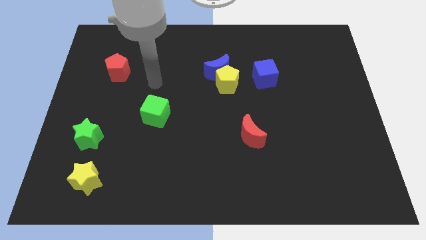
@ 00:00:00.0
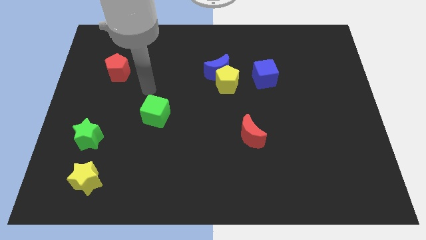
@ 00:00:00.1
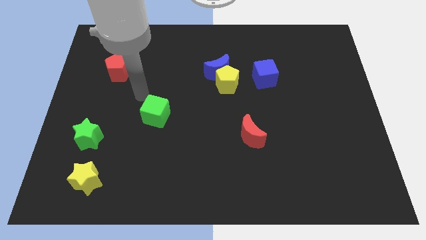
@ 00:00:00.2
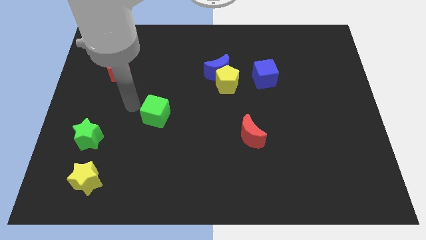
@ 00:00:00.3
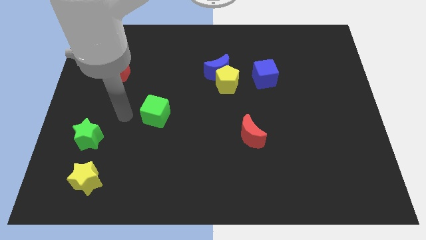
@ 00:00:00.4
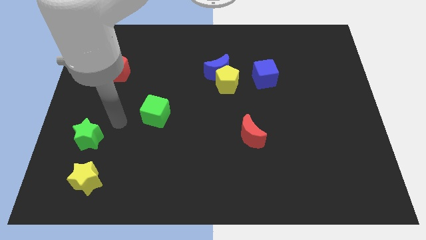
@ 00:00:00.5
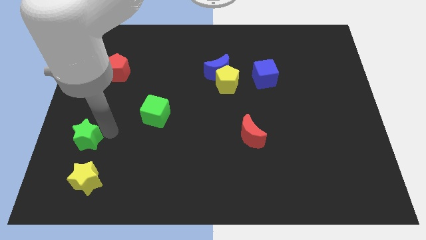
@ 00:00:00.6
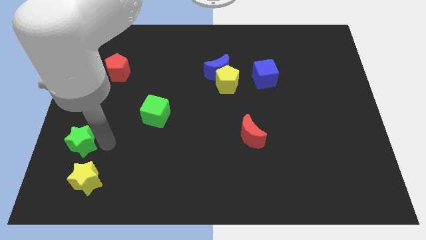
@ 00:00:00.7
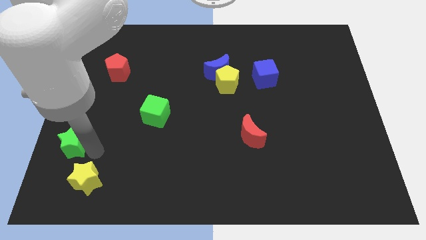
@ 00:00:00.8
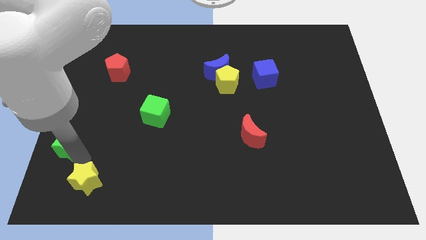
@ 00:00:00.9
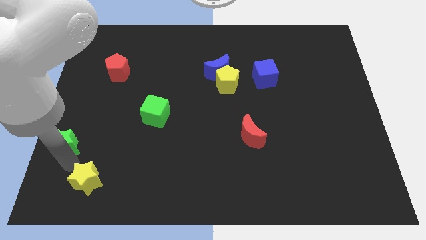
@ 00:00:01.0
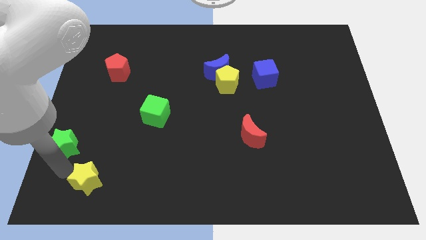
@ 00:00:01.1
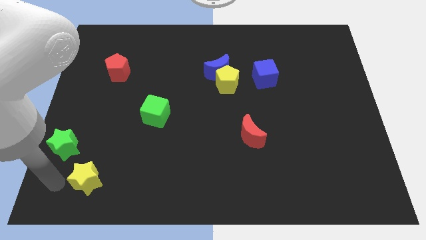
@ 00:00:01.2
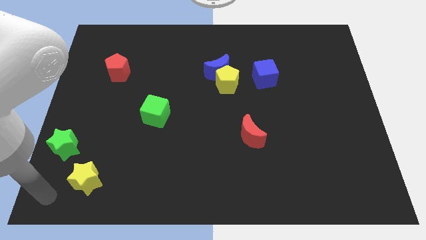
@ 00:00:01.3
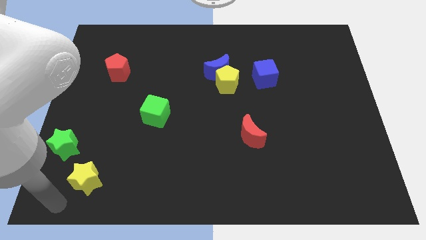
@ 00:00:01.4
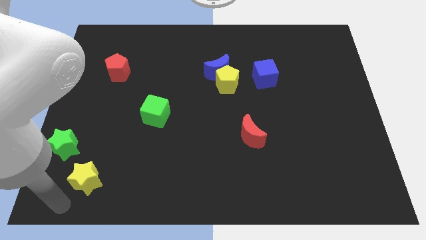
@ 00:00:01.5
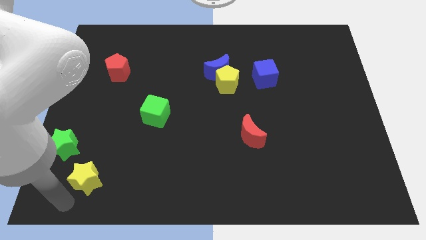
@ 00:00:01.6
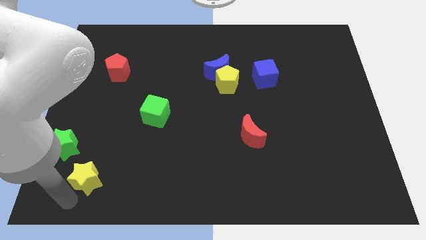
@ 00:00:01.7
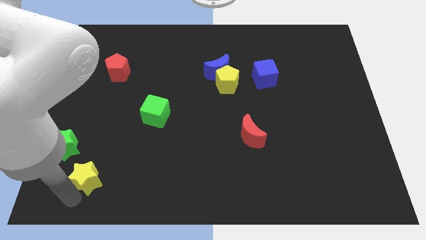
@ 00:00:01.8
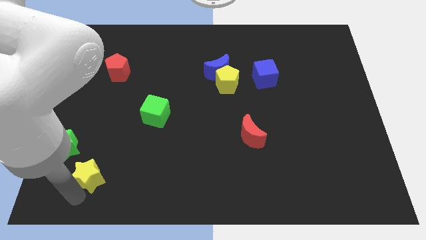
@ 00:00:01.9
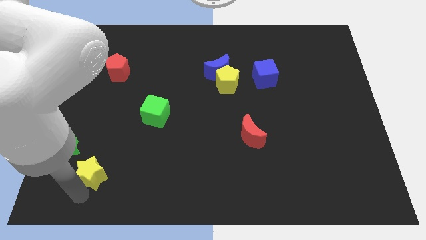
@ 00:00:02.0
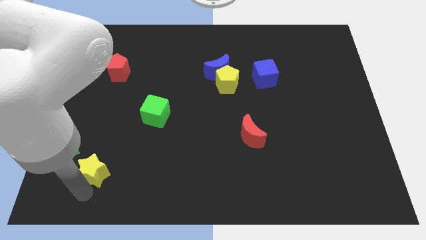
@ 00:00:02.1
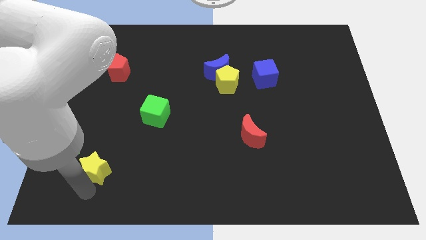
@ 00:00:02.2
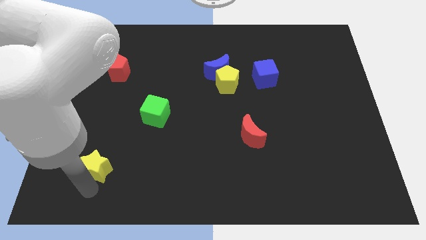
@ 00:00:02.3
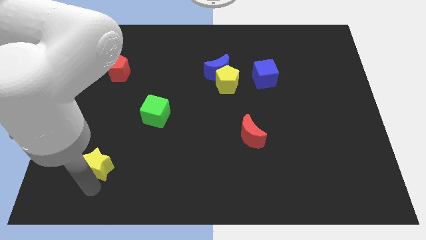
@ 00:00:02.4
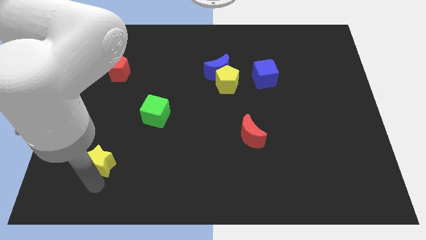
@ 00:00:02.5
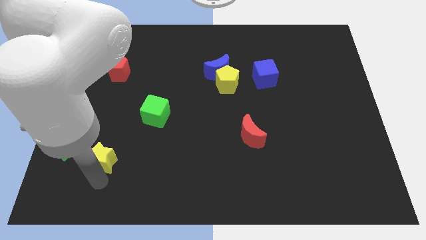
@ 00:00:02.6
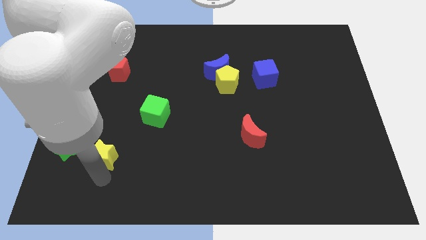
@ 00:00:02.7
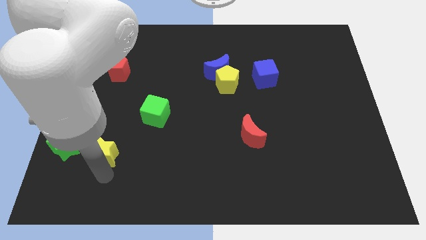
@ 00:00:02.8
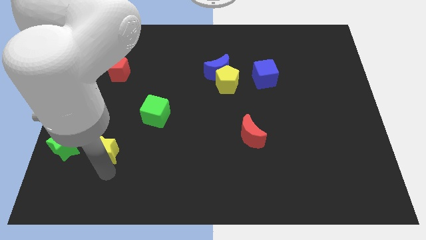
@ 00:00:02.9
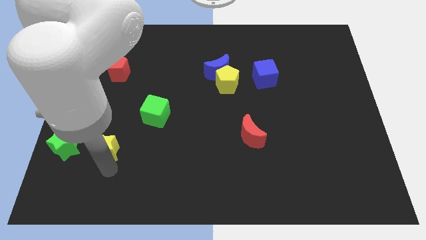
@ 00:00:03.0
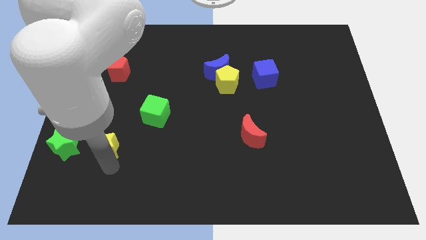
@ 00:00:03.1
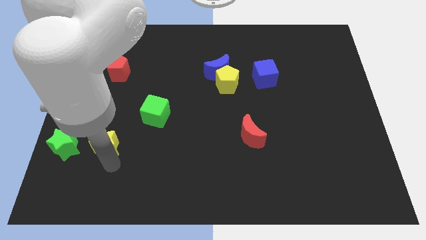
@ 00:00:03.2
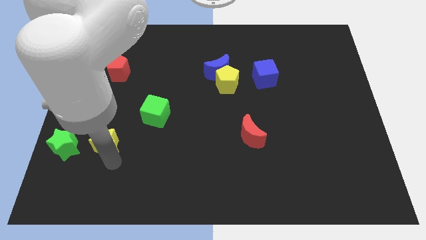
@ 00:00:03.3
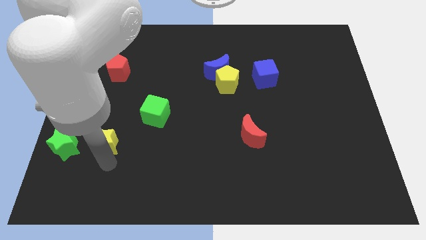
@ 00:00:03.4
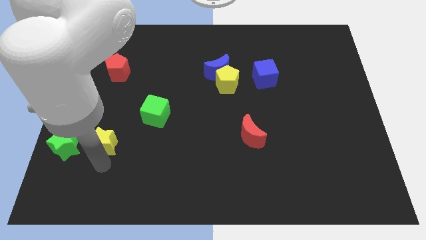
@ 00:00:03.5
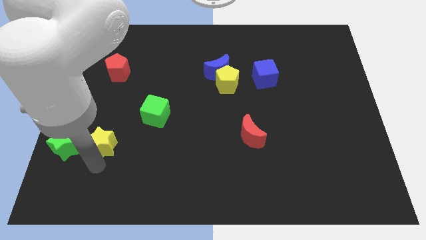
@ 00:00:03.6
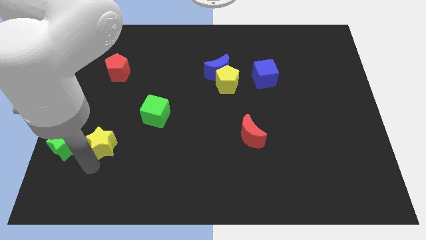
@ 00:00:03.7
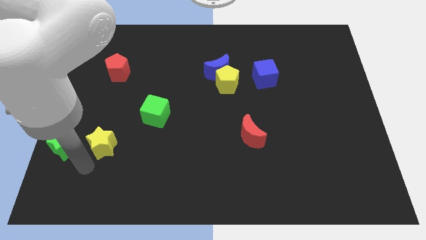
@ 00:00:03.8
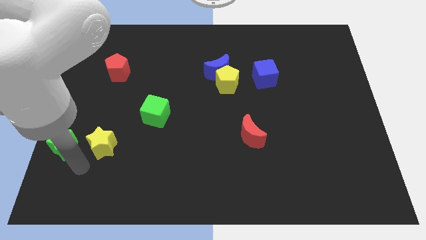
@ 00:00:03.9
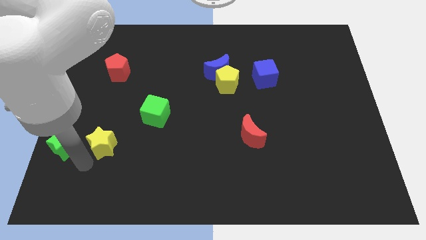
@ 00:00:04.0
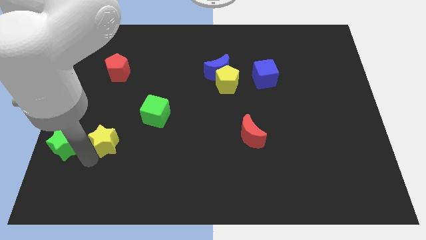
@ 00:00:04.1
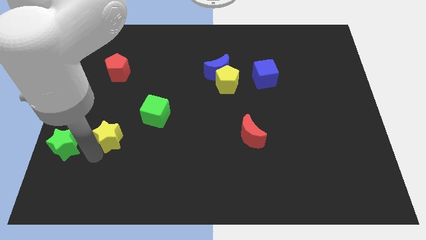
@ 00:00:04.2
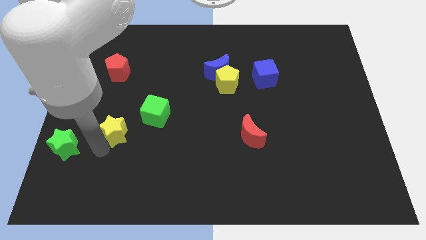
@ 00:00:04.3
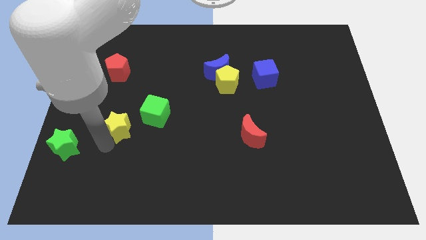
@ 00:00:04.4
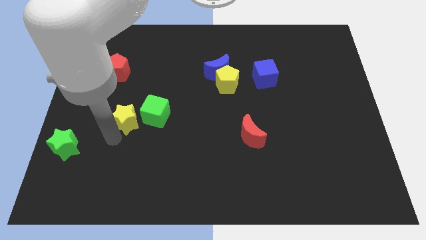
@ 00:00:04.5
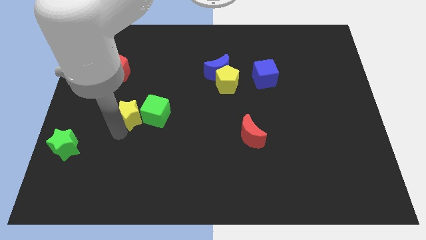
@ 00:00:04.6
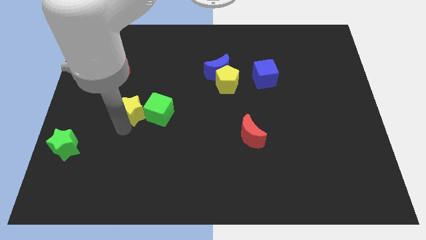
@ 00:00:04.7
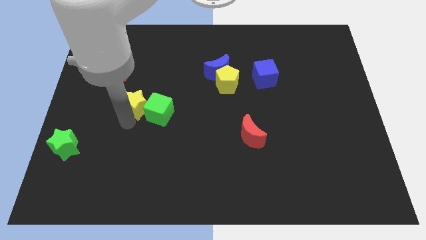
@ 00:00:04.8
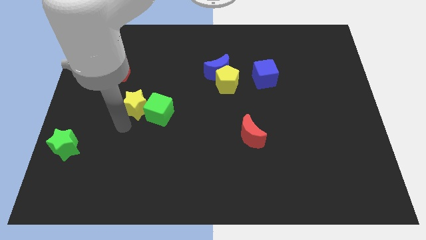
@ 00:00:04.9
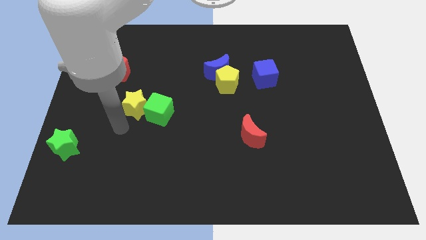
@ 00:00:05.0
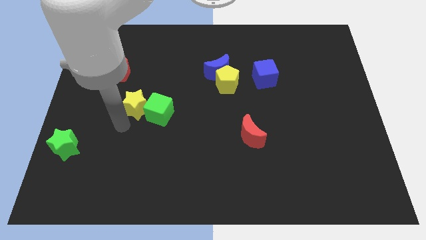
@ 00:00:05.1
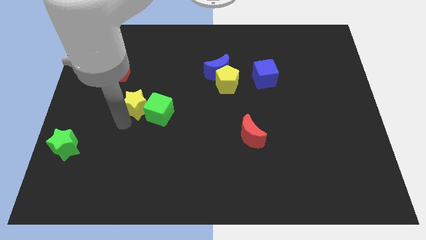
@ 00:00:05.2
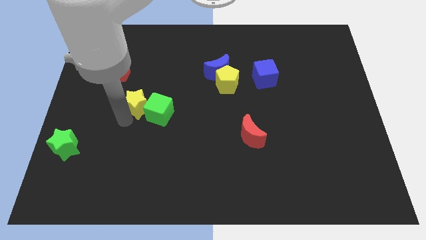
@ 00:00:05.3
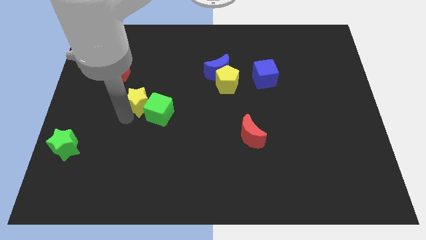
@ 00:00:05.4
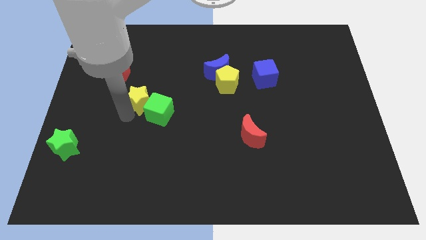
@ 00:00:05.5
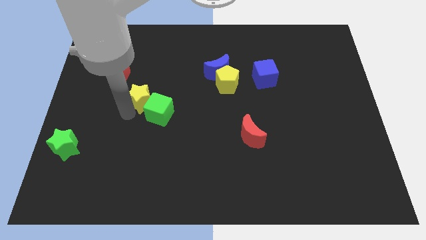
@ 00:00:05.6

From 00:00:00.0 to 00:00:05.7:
slide the yellow star to the top side of the green cube

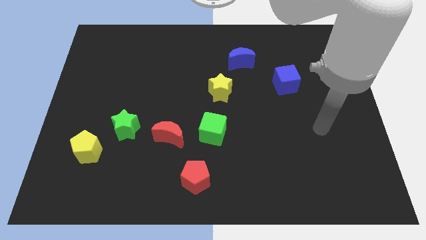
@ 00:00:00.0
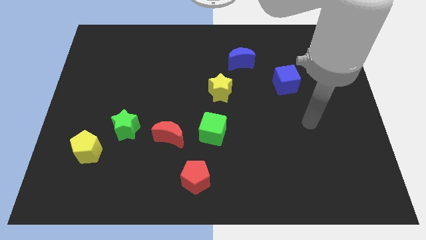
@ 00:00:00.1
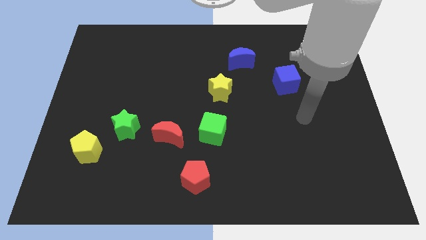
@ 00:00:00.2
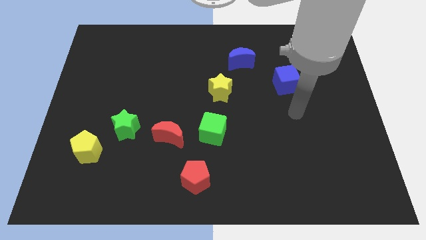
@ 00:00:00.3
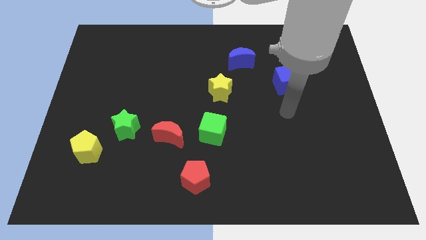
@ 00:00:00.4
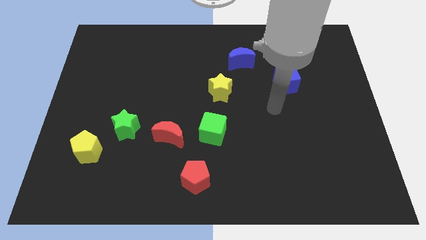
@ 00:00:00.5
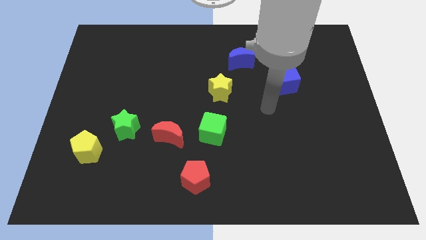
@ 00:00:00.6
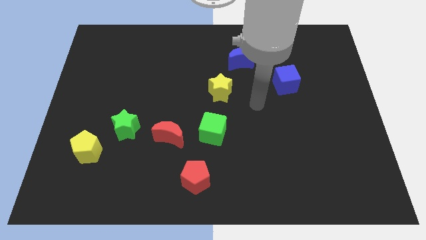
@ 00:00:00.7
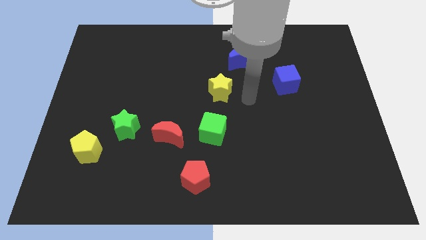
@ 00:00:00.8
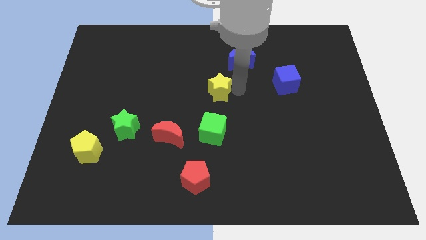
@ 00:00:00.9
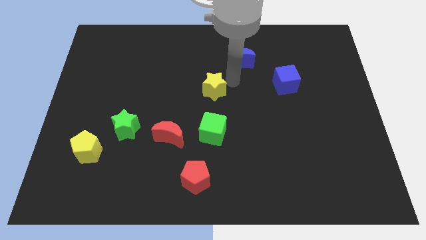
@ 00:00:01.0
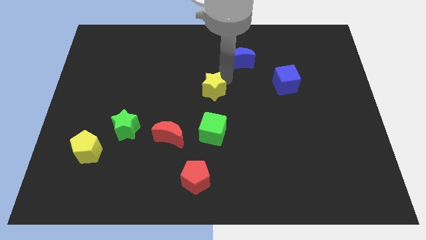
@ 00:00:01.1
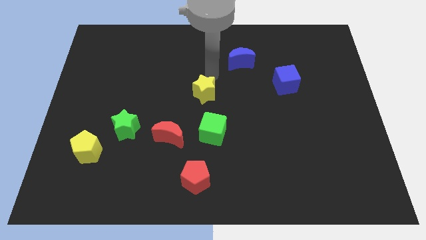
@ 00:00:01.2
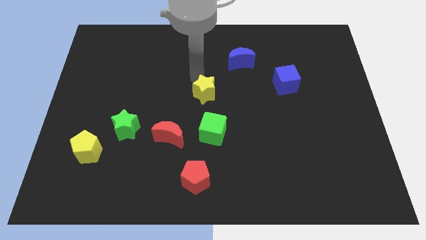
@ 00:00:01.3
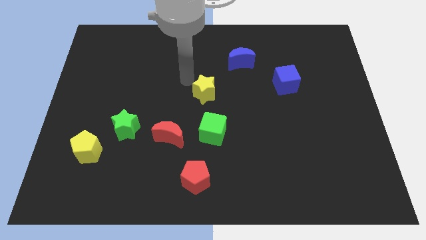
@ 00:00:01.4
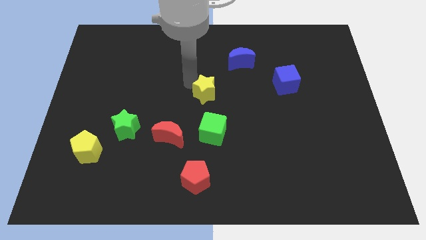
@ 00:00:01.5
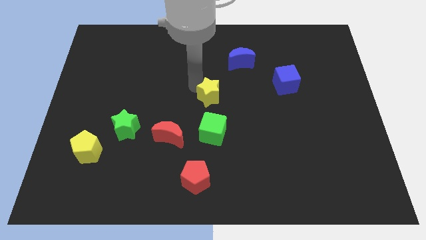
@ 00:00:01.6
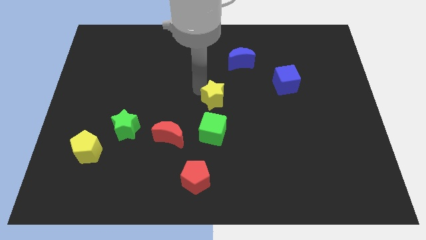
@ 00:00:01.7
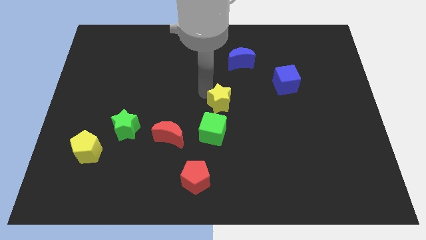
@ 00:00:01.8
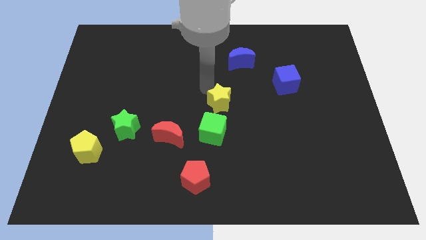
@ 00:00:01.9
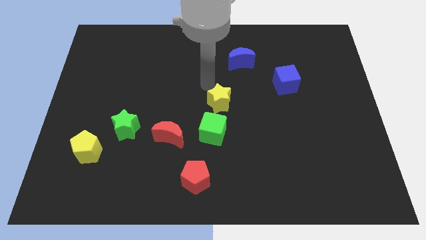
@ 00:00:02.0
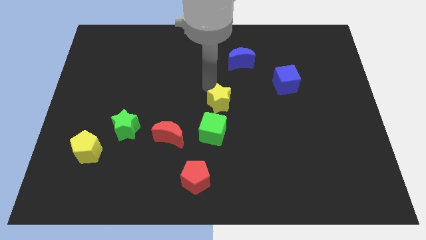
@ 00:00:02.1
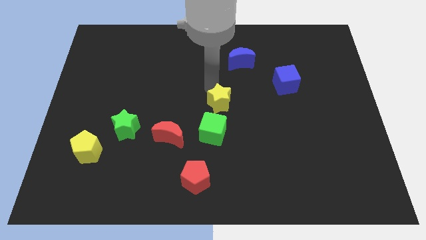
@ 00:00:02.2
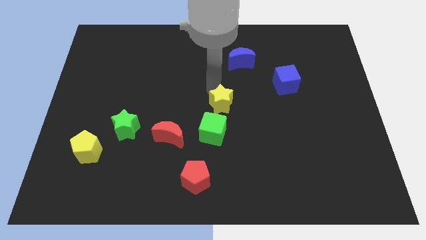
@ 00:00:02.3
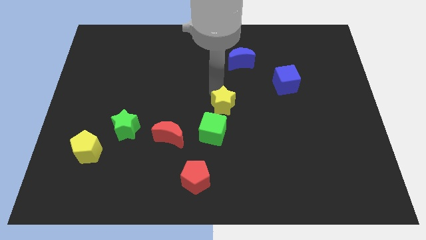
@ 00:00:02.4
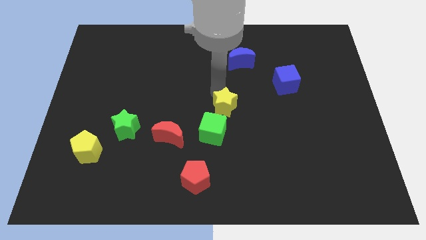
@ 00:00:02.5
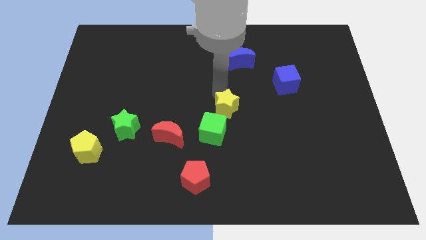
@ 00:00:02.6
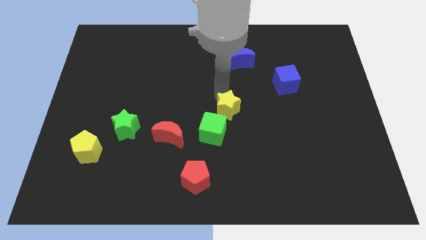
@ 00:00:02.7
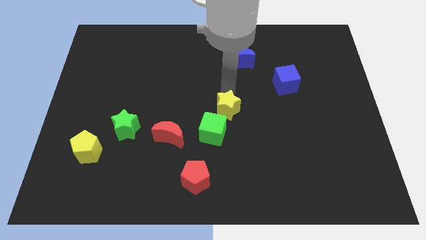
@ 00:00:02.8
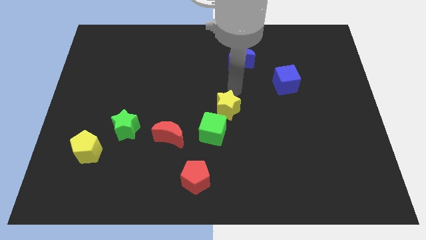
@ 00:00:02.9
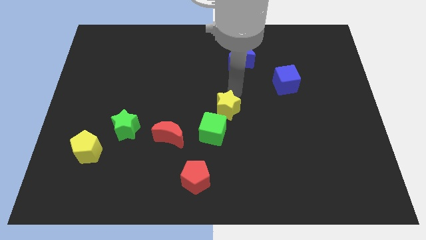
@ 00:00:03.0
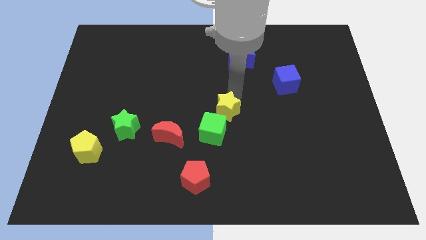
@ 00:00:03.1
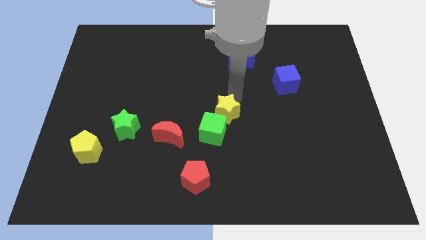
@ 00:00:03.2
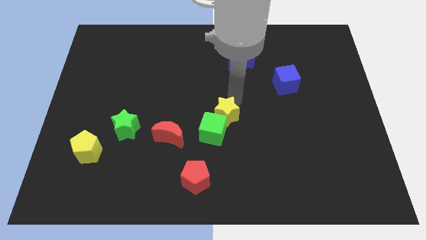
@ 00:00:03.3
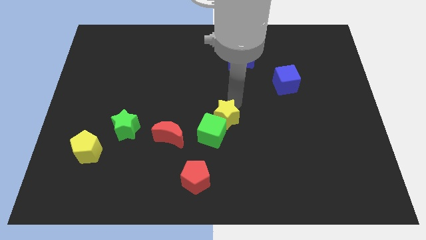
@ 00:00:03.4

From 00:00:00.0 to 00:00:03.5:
slide the yellow star to the right of the red moon
